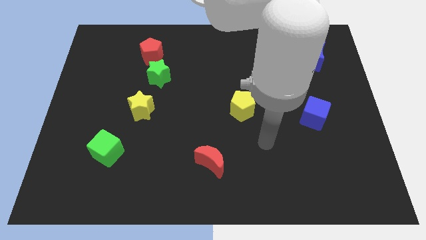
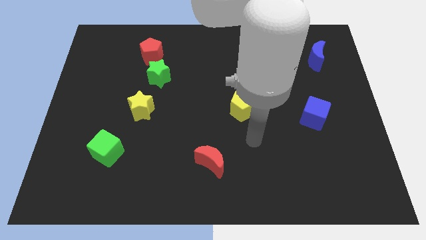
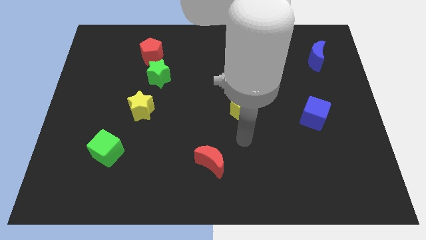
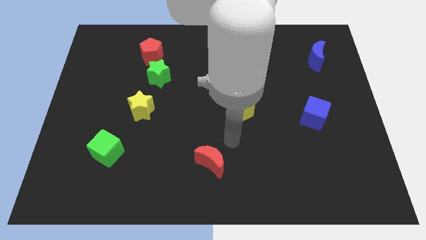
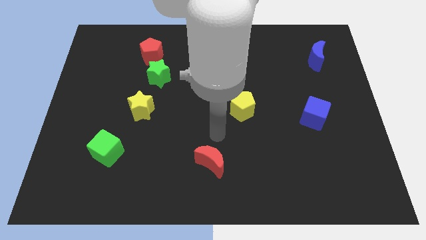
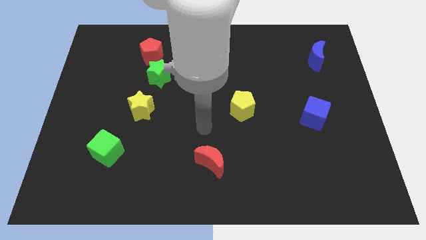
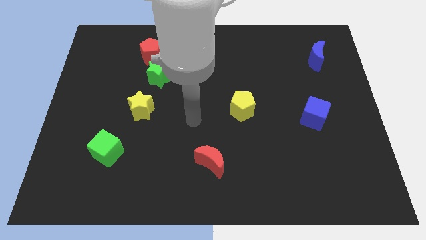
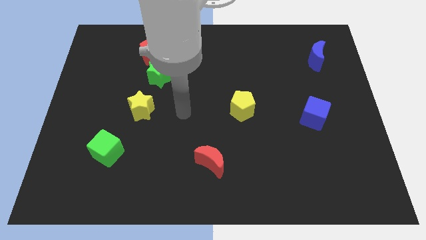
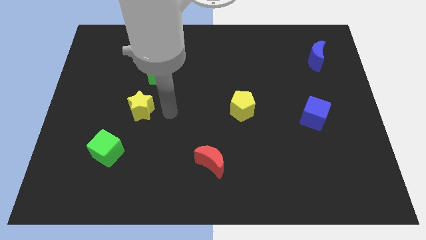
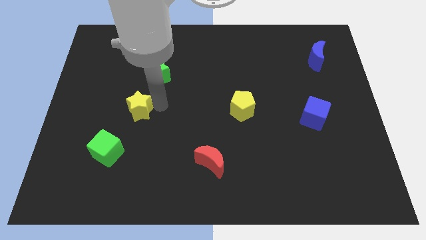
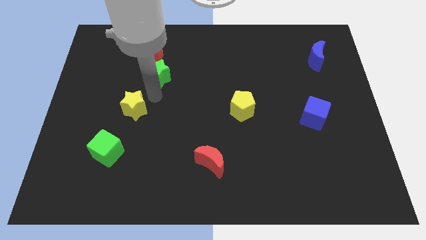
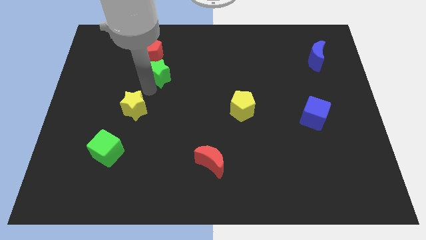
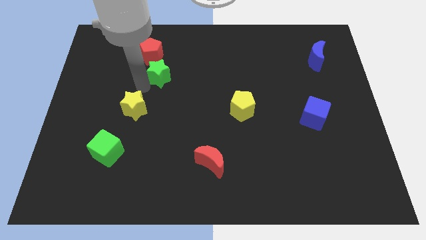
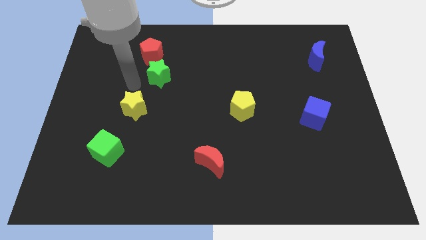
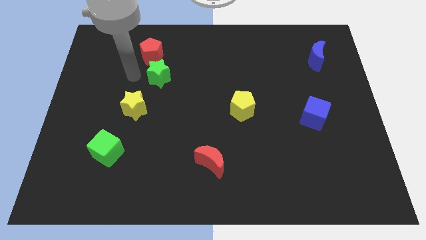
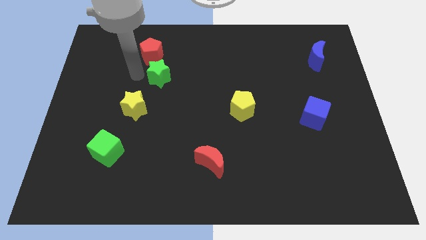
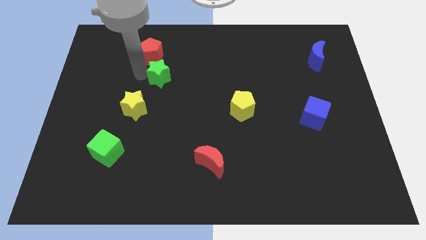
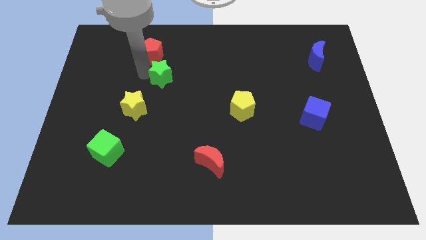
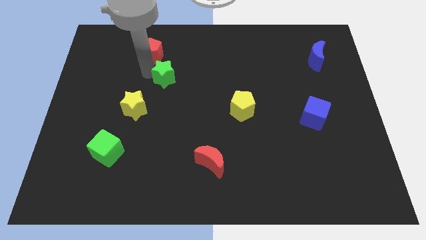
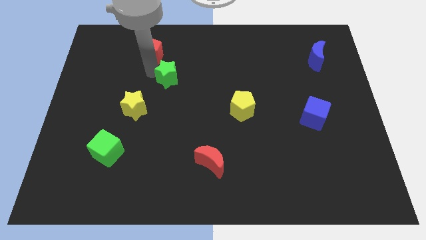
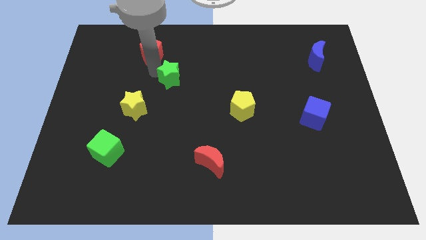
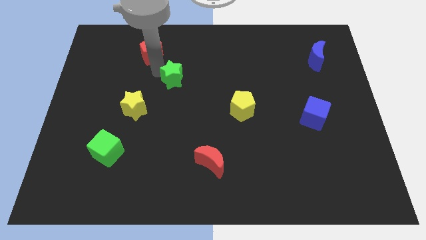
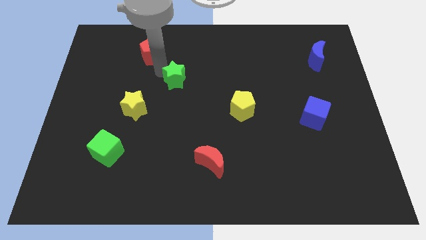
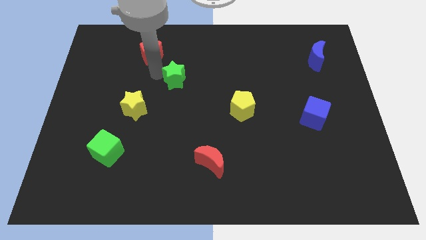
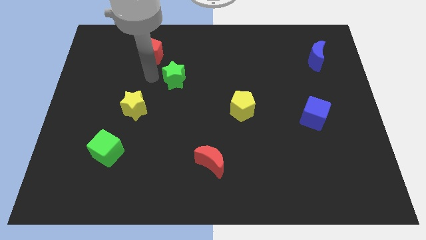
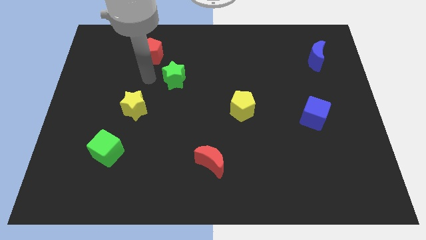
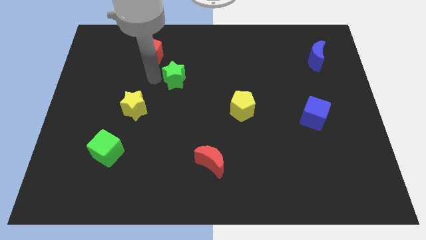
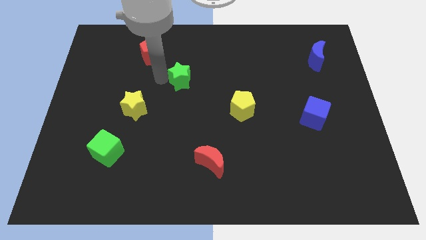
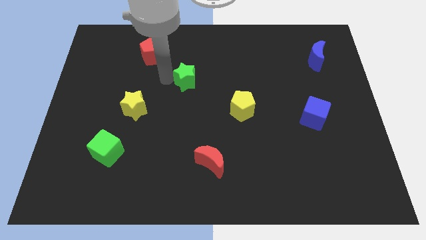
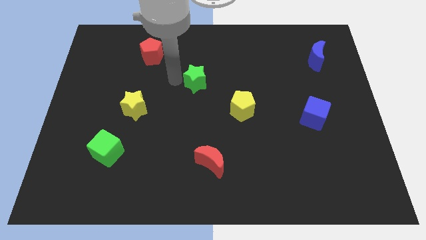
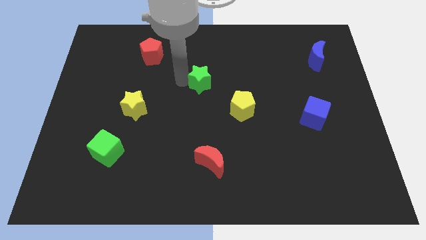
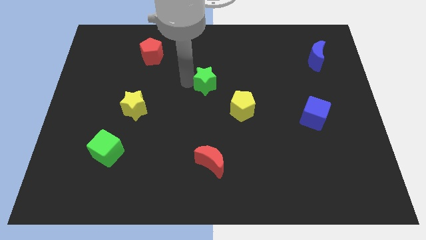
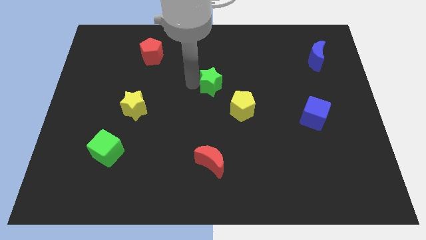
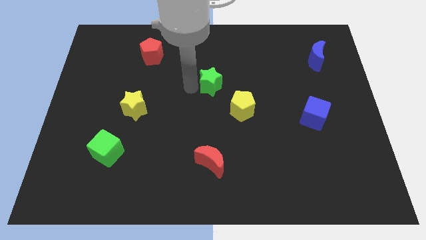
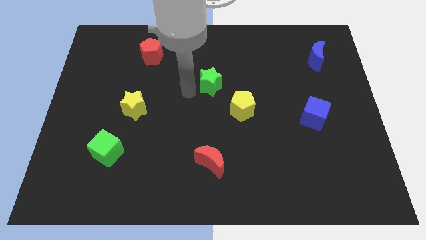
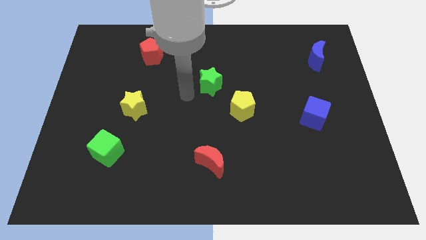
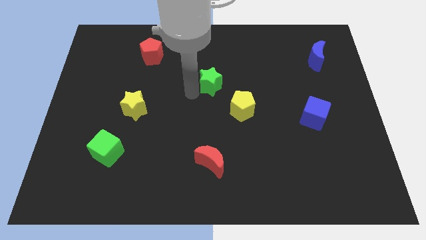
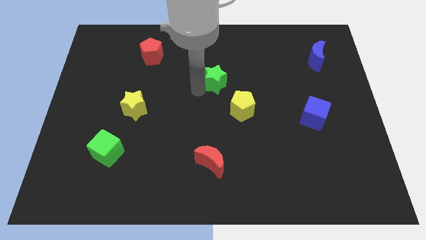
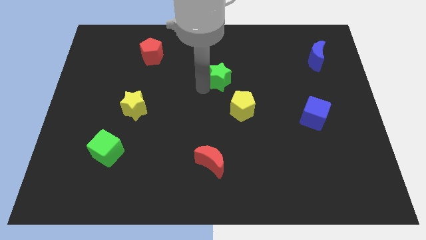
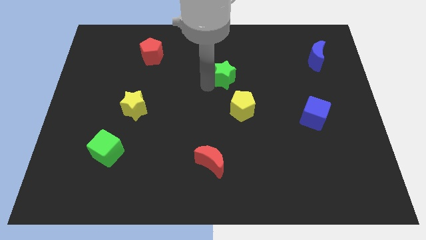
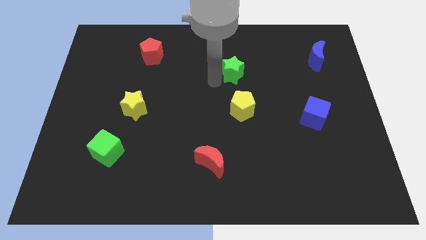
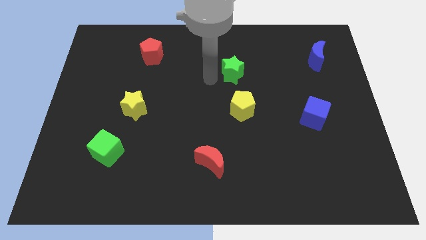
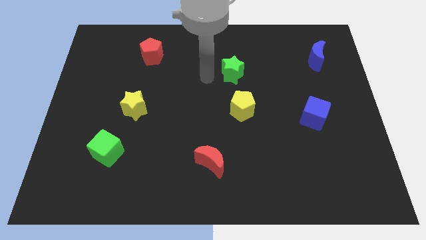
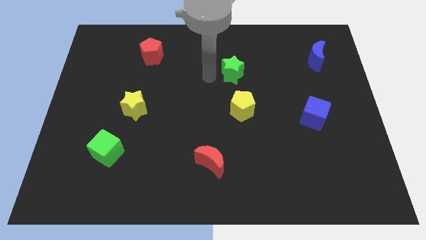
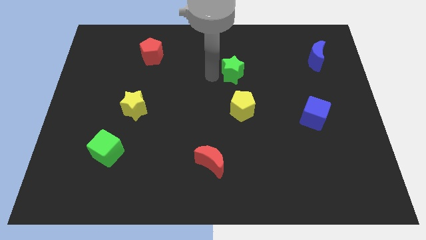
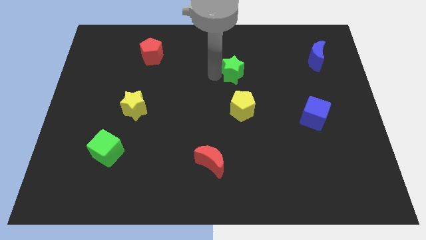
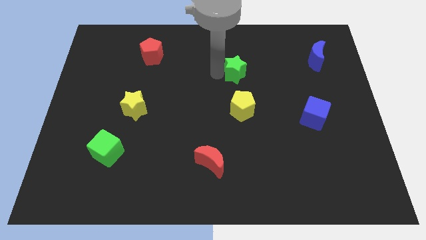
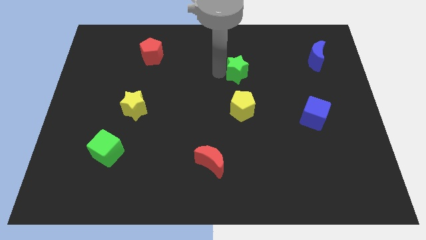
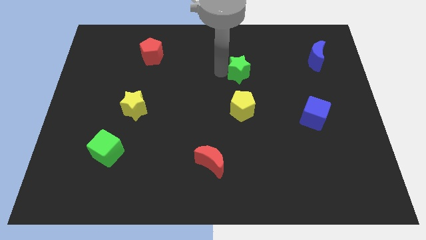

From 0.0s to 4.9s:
move the green star right

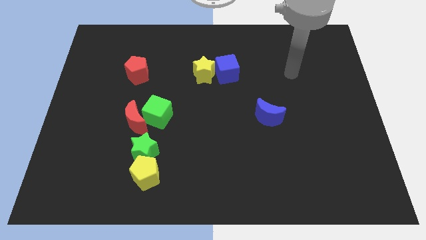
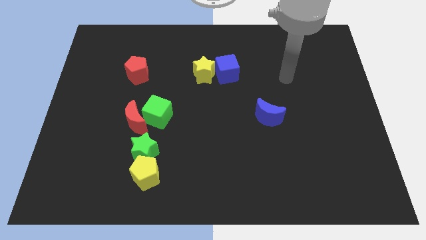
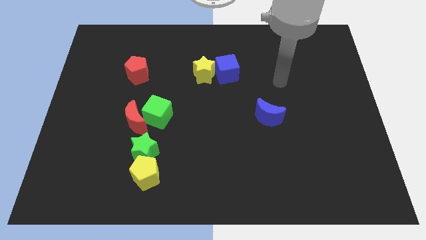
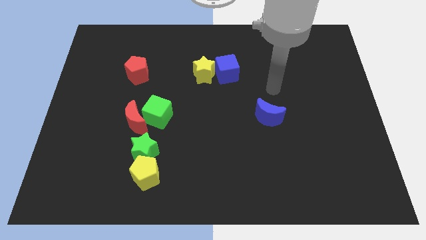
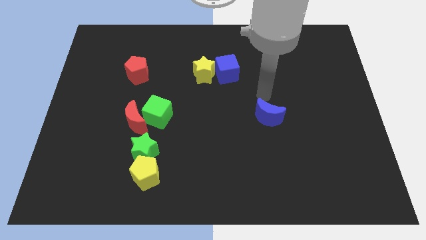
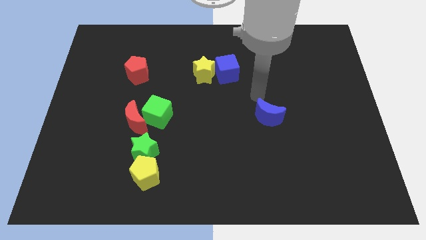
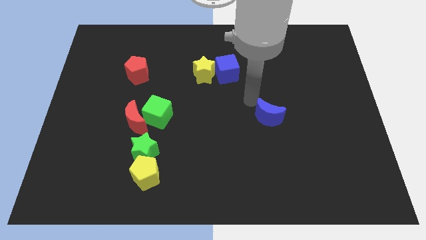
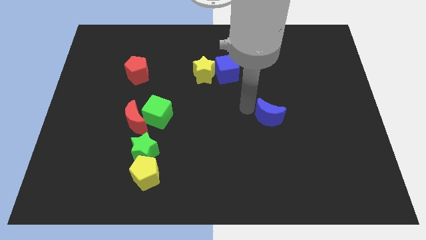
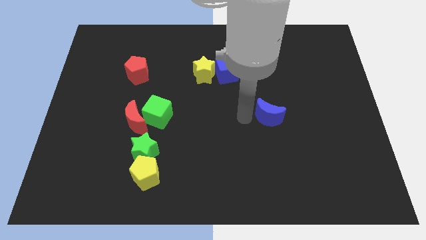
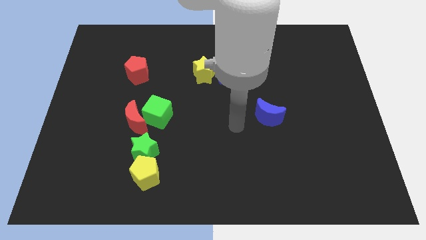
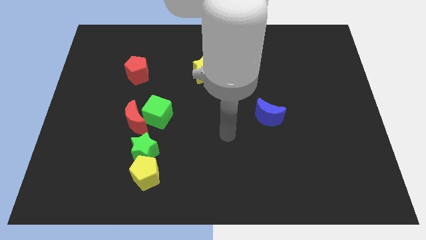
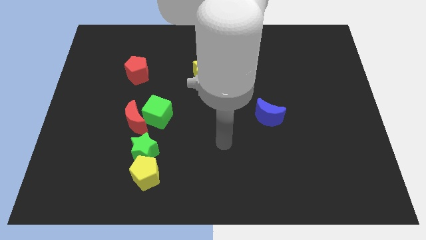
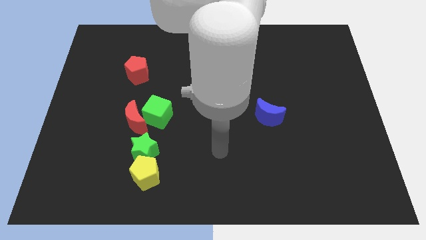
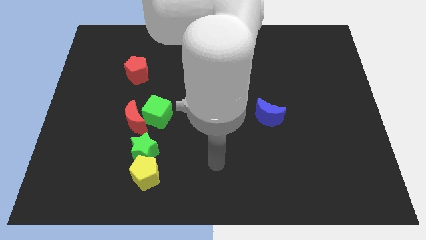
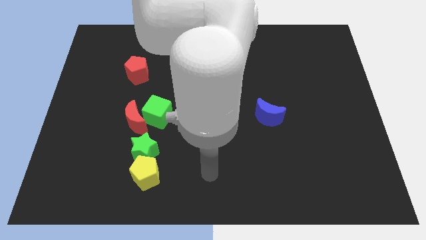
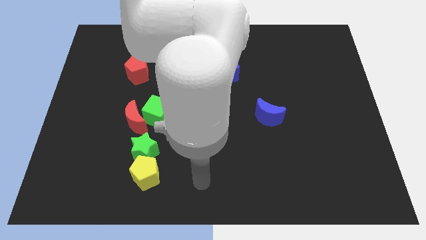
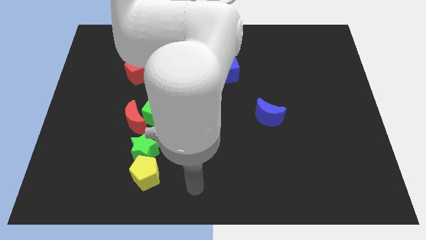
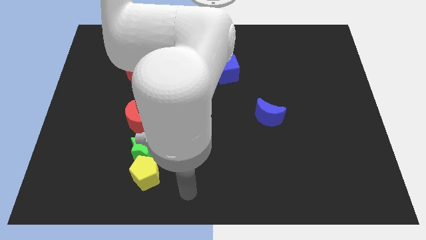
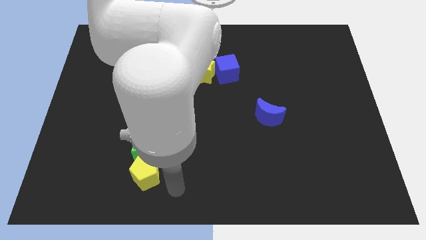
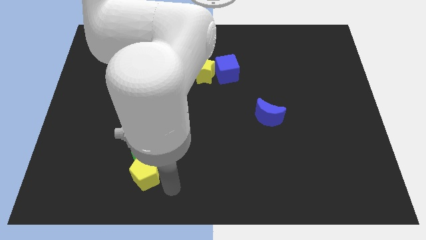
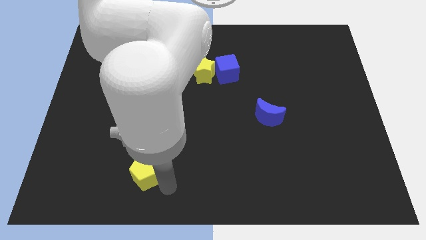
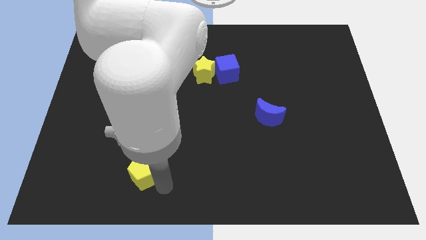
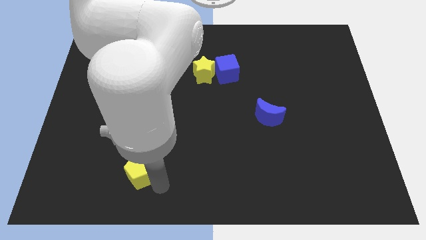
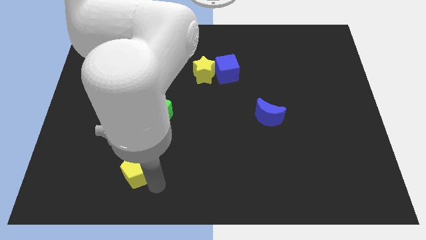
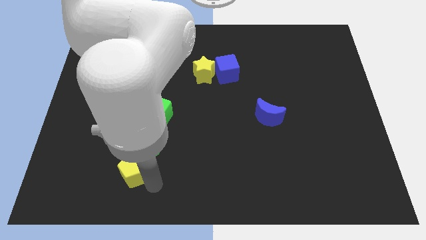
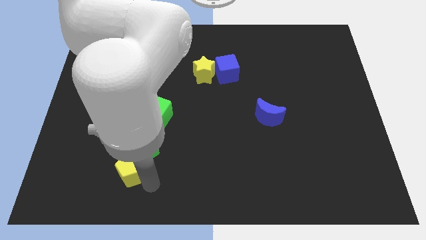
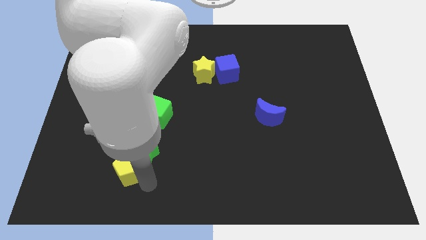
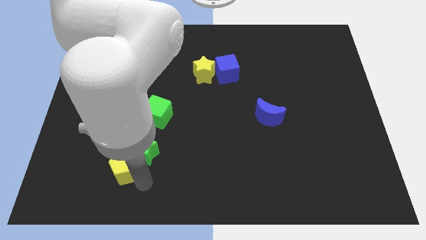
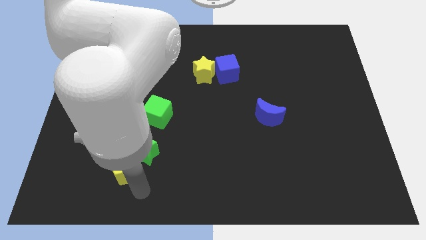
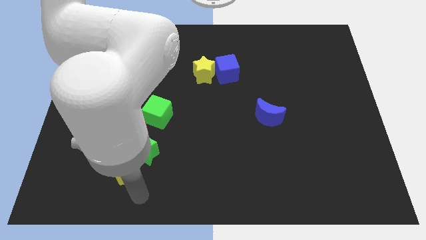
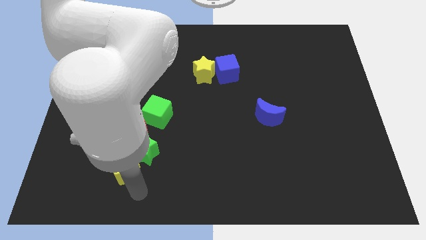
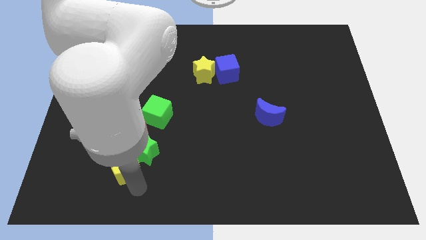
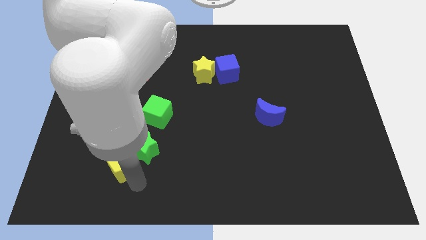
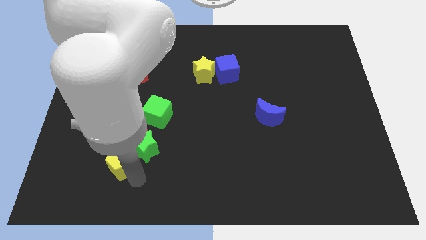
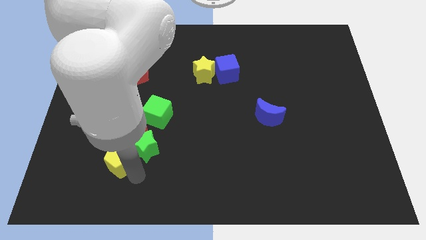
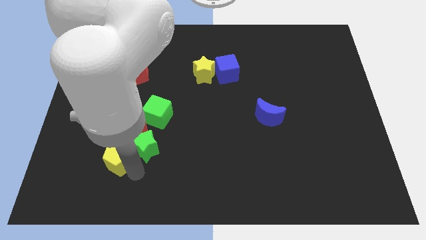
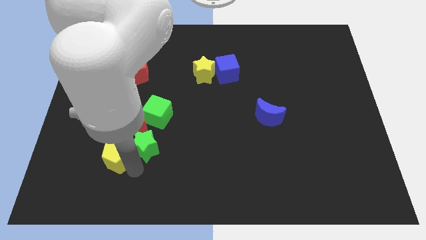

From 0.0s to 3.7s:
slightly slide the yellow pentagon diagonally up and to the left
